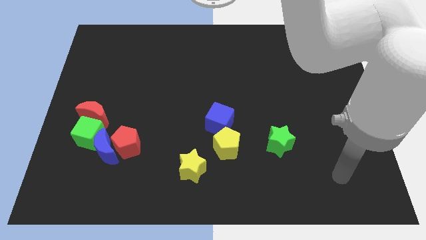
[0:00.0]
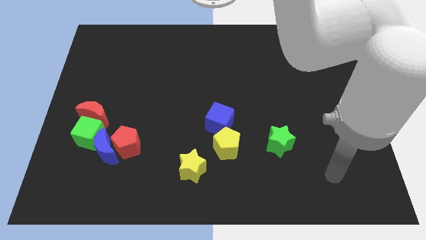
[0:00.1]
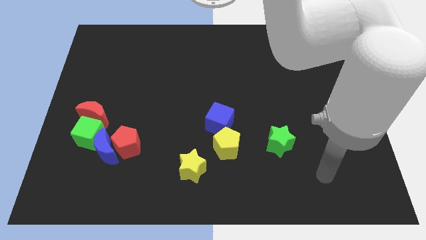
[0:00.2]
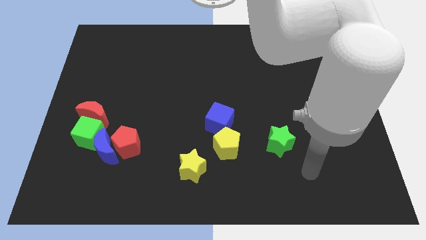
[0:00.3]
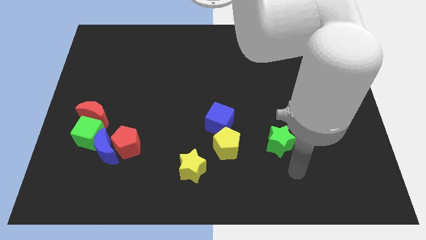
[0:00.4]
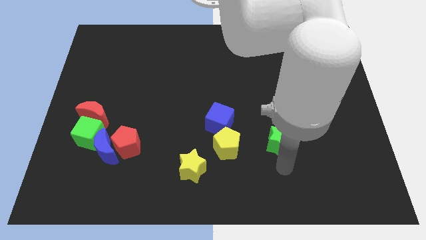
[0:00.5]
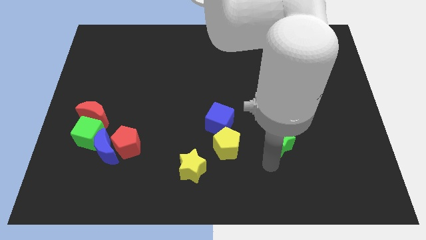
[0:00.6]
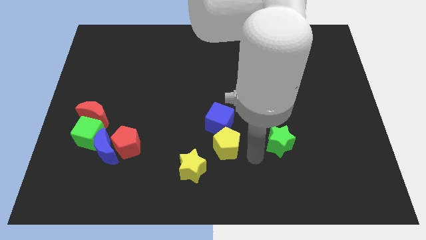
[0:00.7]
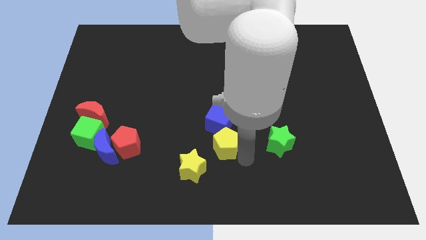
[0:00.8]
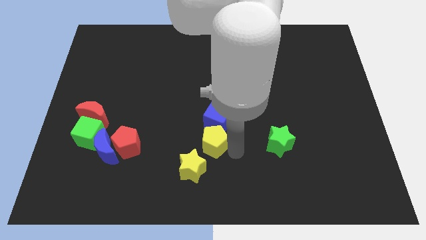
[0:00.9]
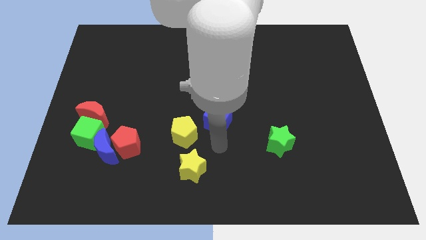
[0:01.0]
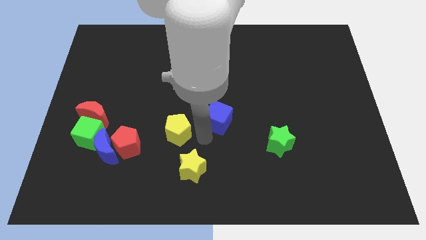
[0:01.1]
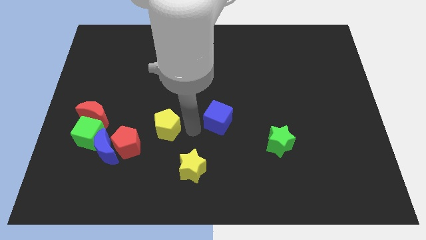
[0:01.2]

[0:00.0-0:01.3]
pull the blue cube apart from the yellow pentagon

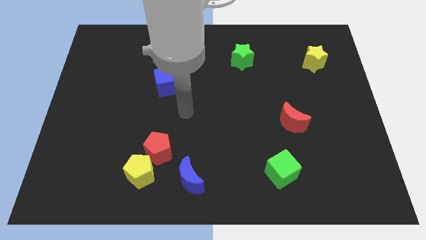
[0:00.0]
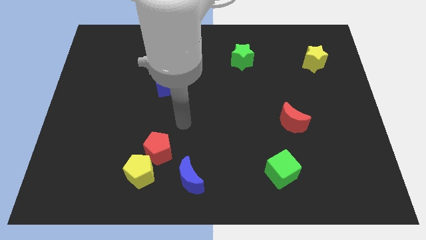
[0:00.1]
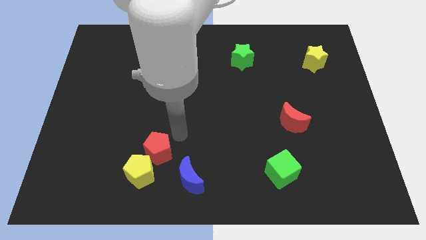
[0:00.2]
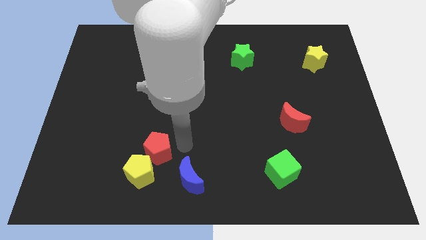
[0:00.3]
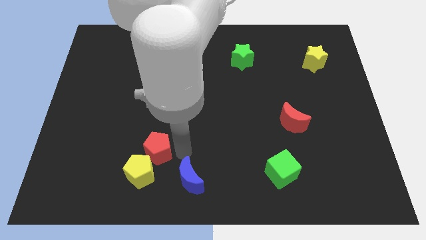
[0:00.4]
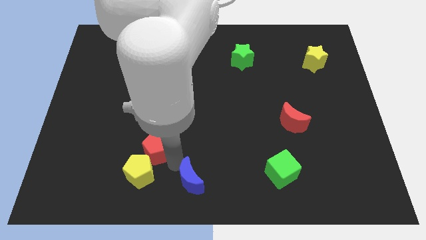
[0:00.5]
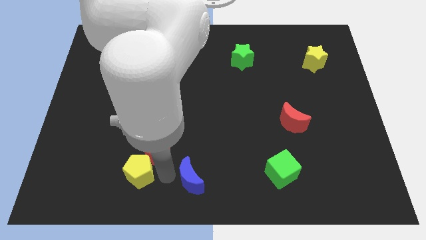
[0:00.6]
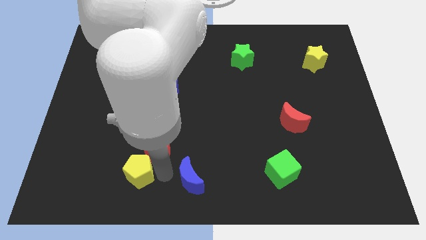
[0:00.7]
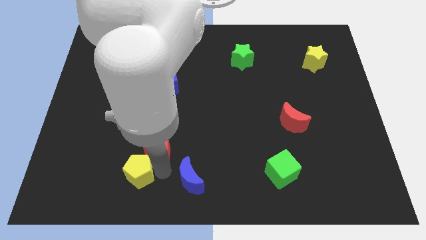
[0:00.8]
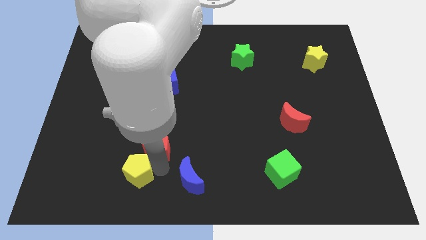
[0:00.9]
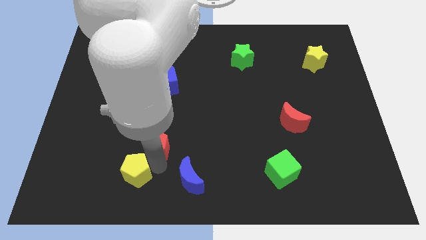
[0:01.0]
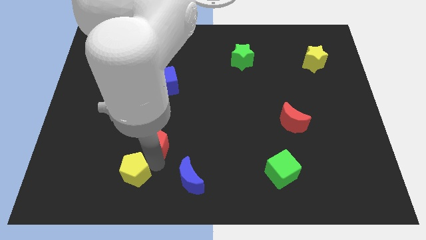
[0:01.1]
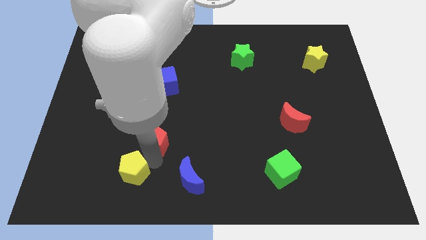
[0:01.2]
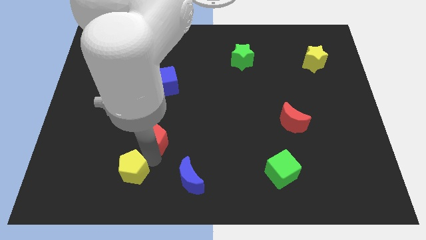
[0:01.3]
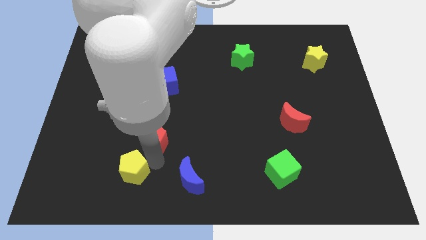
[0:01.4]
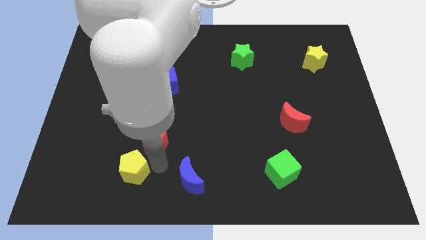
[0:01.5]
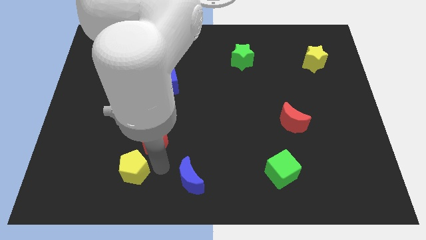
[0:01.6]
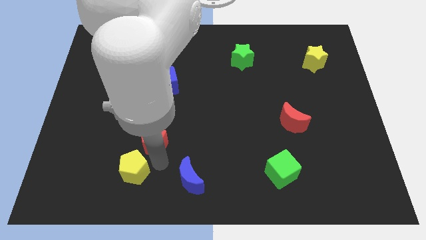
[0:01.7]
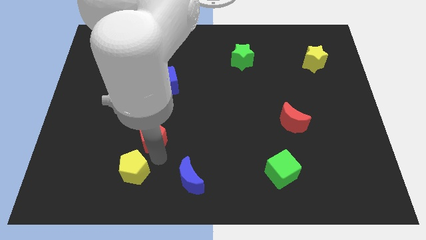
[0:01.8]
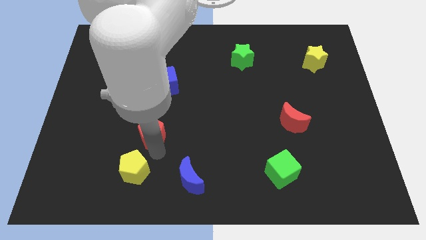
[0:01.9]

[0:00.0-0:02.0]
separate the red pentagon from the yellow pentagon and blue moon

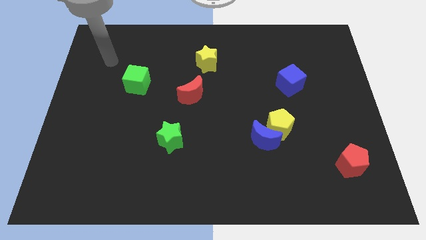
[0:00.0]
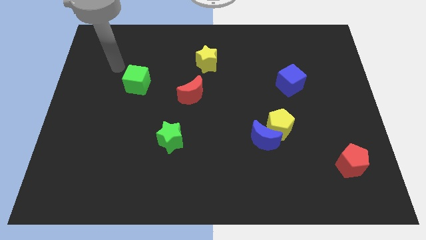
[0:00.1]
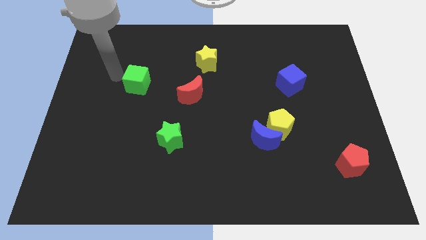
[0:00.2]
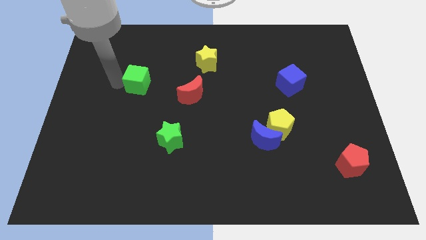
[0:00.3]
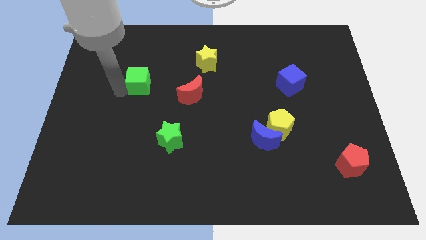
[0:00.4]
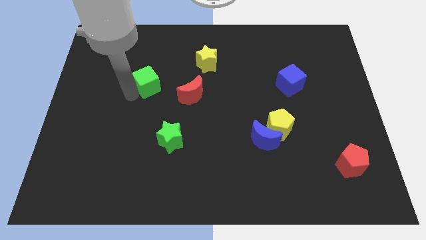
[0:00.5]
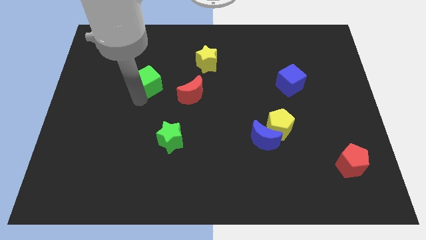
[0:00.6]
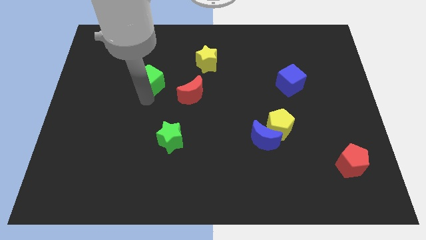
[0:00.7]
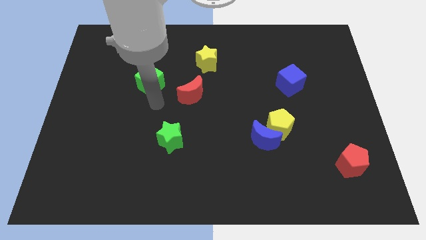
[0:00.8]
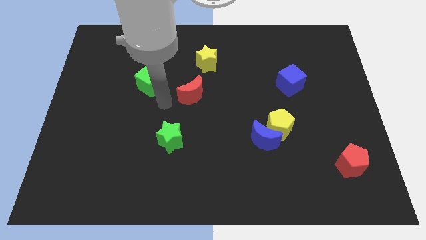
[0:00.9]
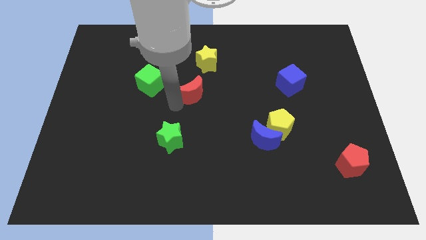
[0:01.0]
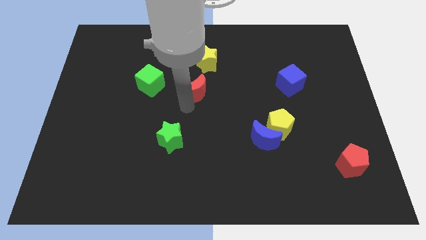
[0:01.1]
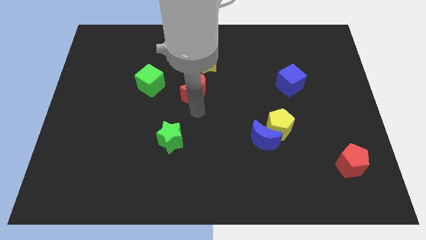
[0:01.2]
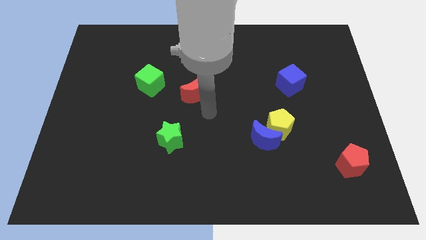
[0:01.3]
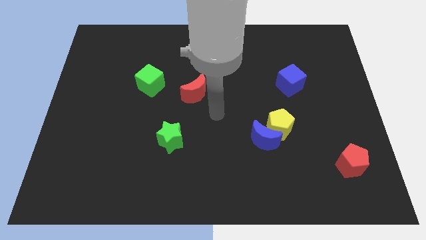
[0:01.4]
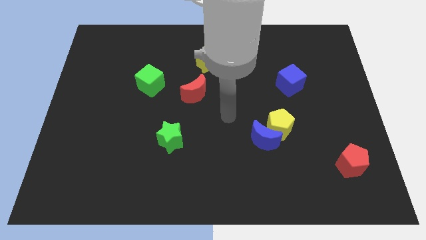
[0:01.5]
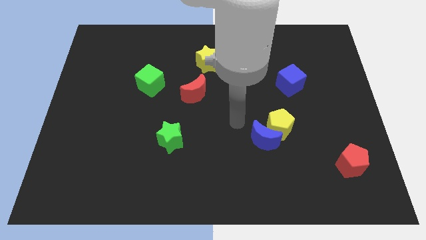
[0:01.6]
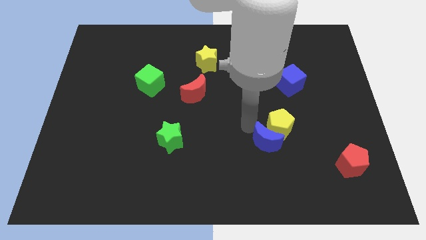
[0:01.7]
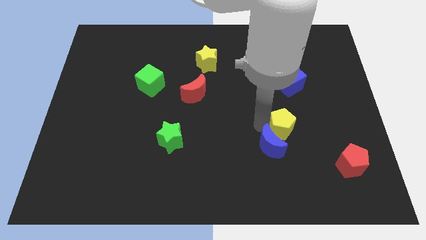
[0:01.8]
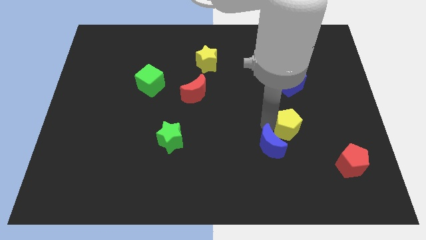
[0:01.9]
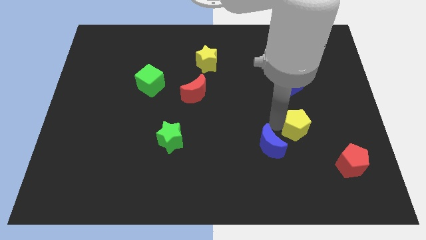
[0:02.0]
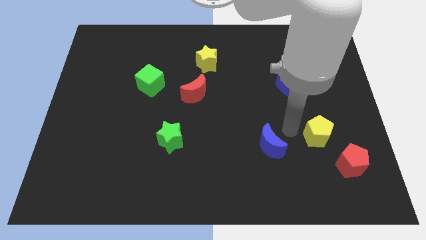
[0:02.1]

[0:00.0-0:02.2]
separate the blue moon from the yellow pentagon

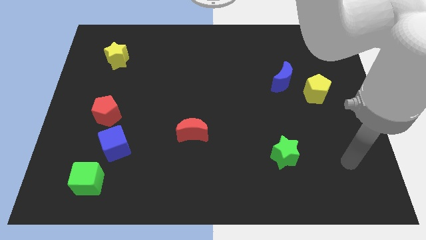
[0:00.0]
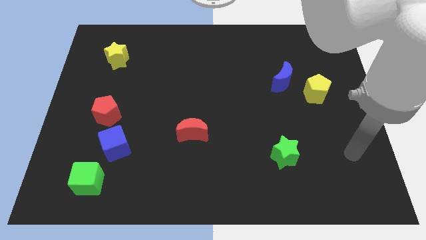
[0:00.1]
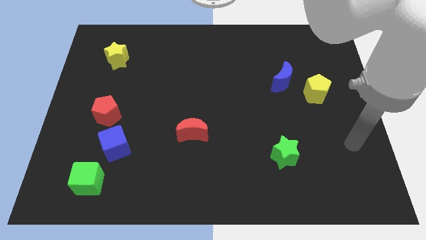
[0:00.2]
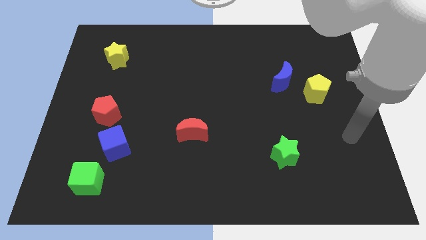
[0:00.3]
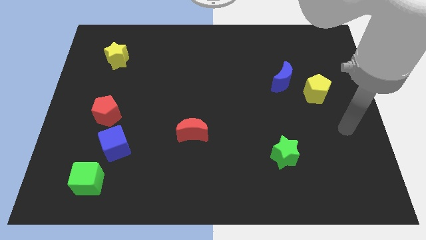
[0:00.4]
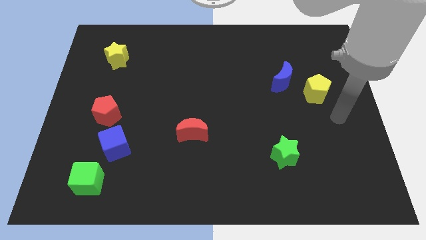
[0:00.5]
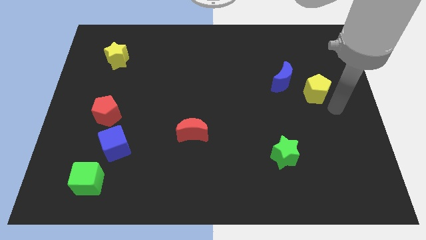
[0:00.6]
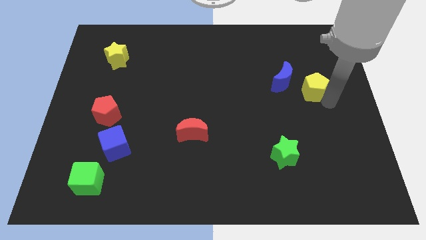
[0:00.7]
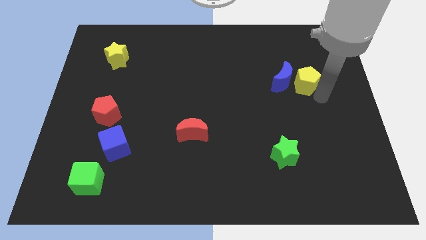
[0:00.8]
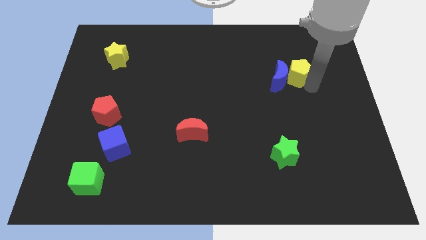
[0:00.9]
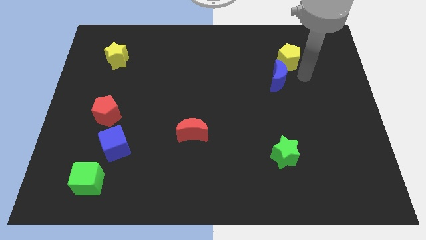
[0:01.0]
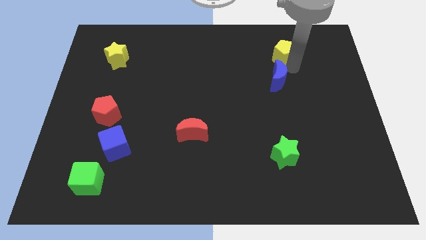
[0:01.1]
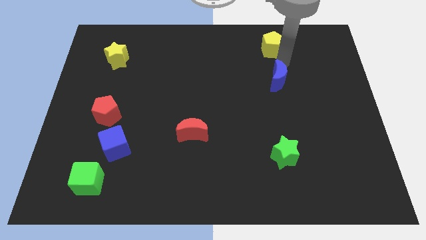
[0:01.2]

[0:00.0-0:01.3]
pull the blue moon apart from the yellow pentagon

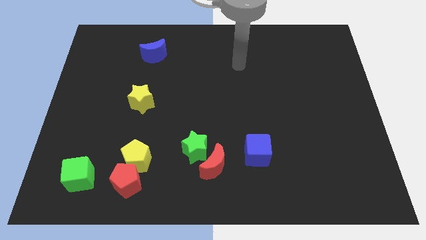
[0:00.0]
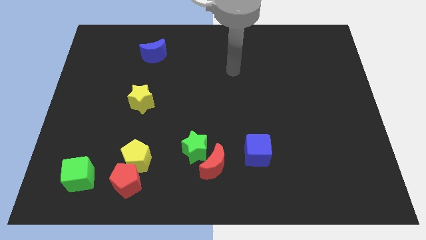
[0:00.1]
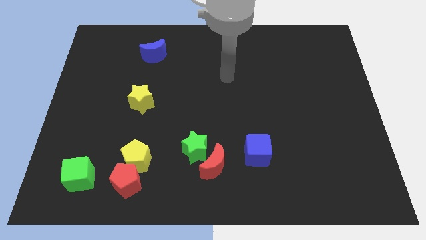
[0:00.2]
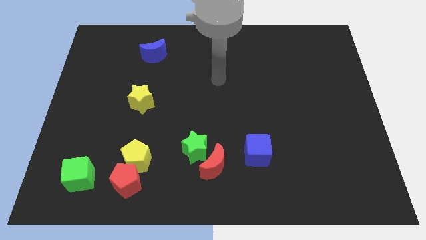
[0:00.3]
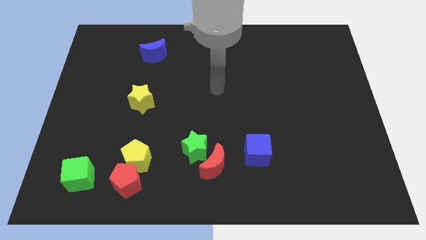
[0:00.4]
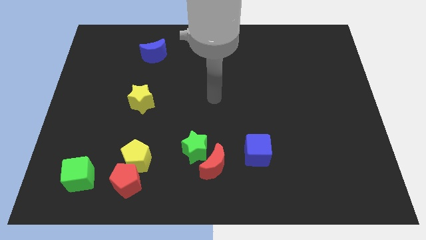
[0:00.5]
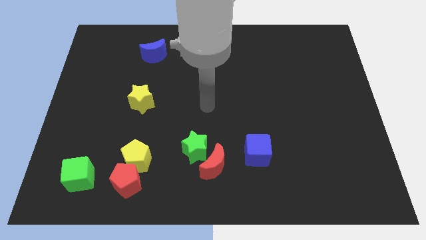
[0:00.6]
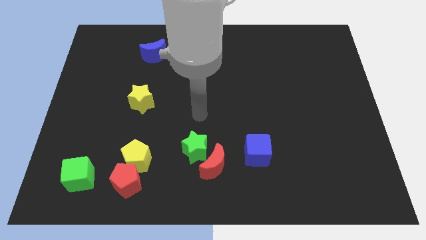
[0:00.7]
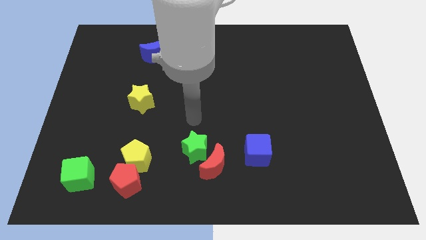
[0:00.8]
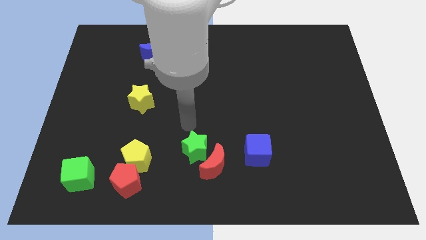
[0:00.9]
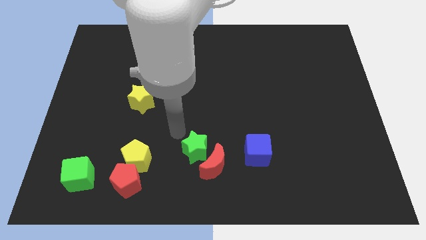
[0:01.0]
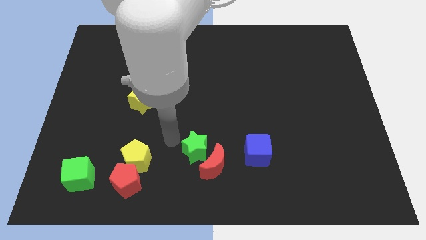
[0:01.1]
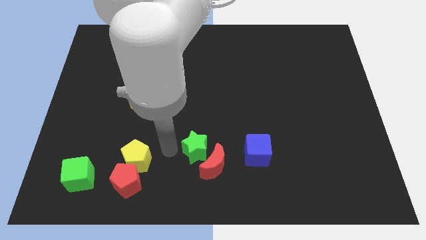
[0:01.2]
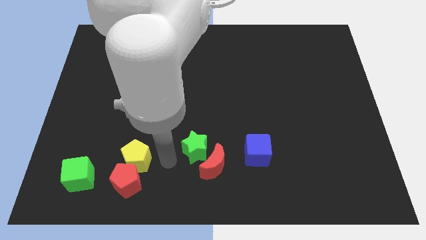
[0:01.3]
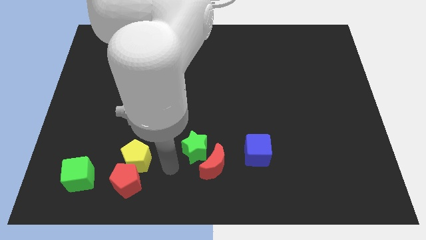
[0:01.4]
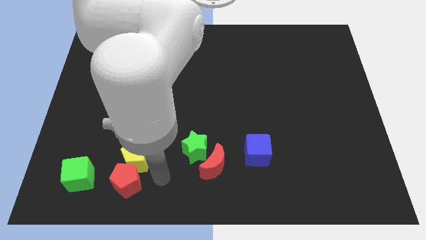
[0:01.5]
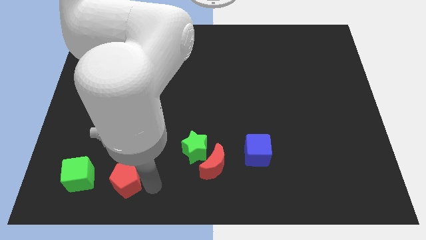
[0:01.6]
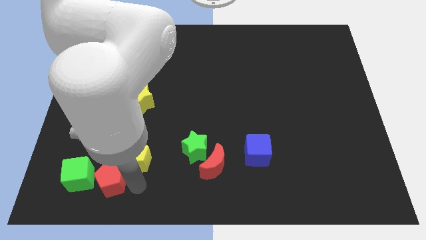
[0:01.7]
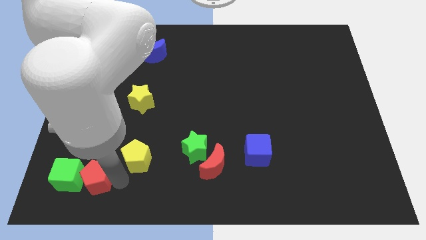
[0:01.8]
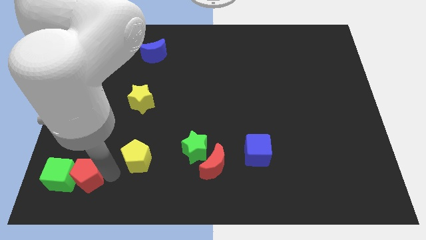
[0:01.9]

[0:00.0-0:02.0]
separate the yellow pentagon from the red pentagon

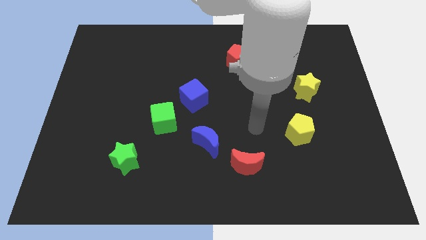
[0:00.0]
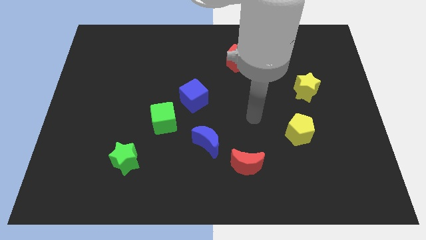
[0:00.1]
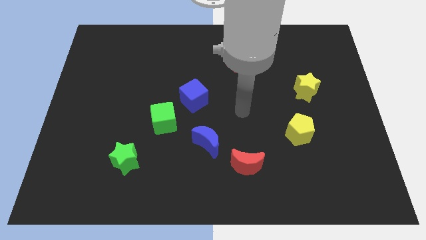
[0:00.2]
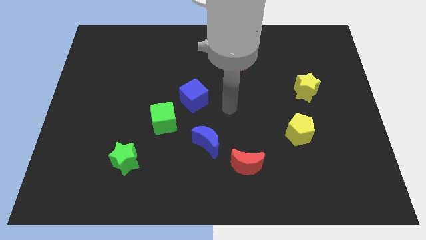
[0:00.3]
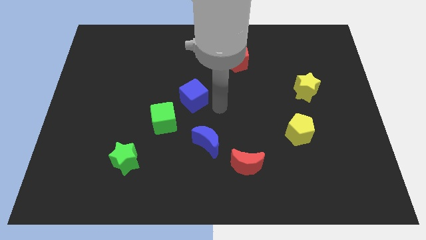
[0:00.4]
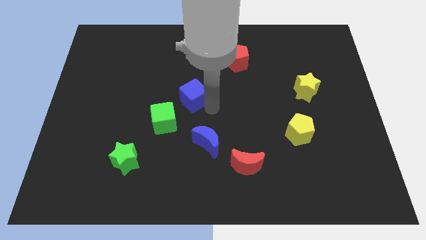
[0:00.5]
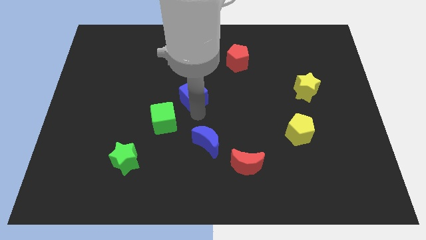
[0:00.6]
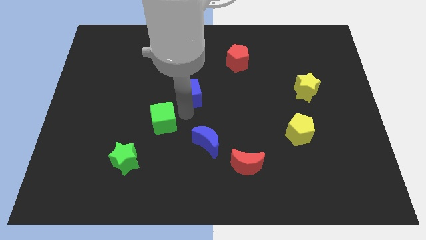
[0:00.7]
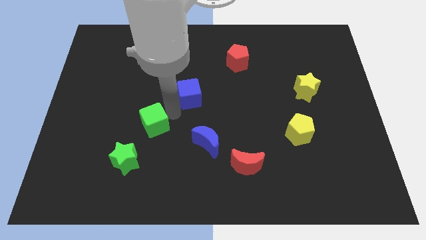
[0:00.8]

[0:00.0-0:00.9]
separate the blue cube from the green cube
